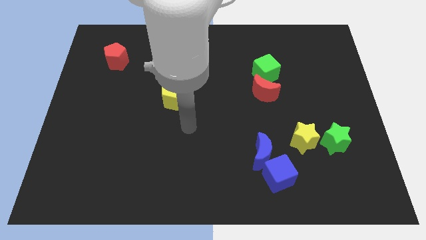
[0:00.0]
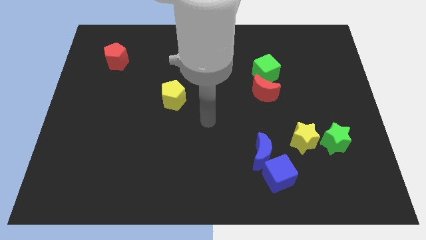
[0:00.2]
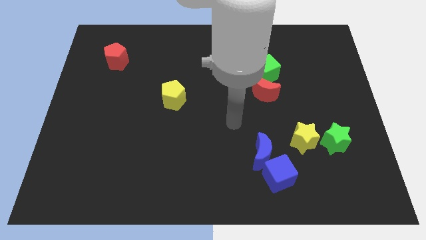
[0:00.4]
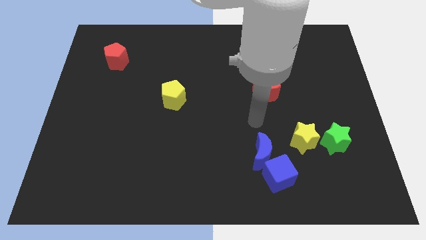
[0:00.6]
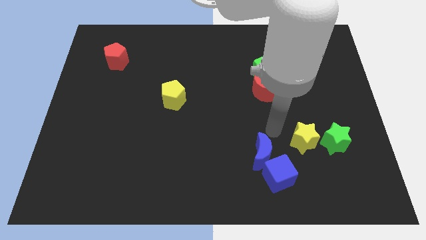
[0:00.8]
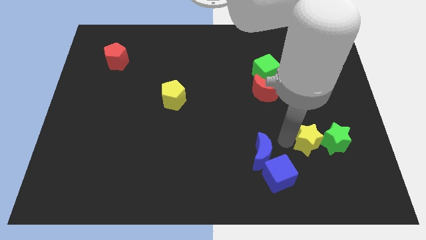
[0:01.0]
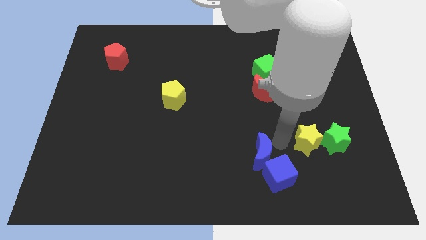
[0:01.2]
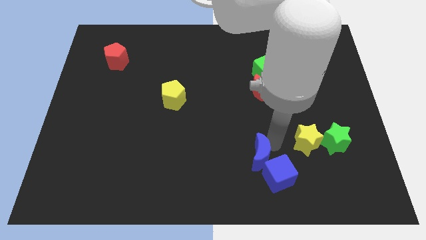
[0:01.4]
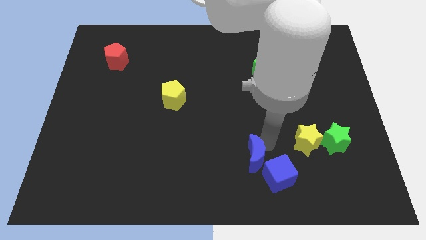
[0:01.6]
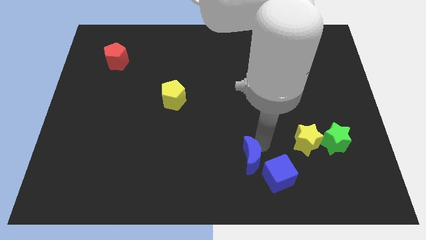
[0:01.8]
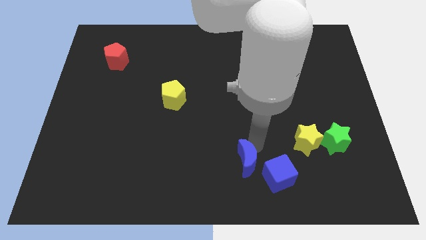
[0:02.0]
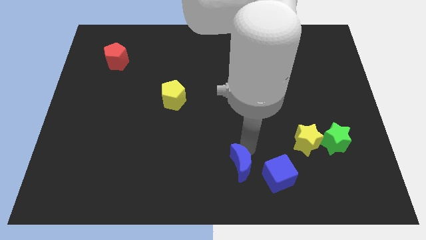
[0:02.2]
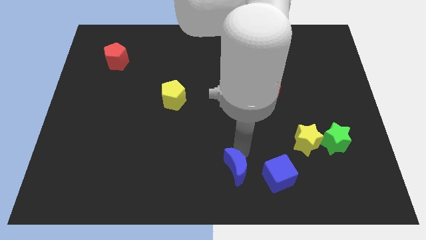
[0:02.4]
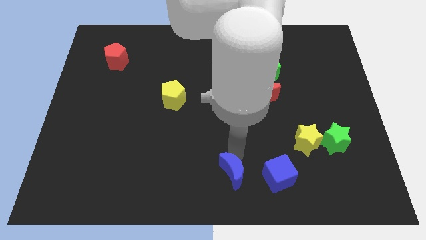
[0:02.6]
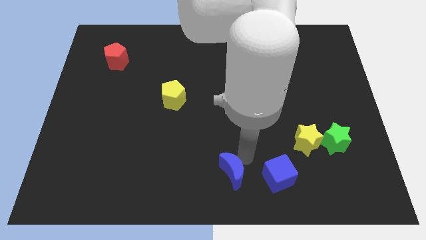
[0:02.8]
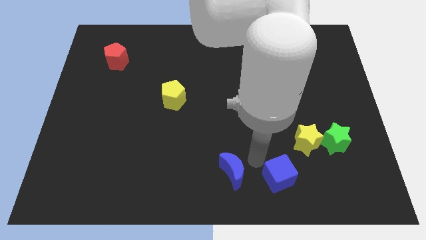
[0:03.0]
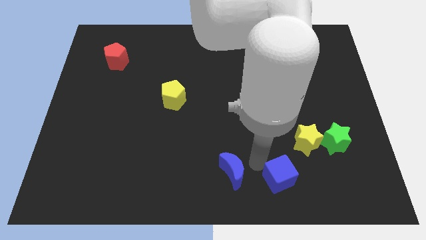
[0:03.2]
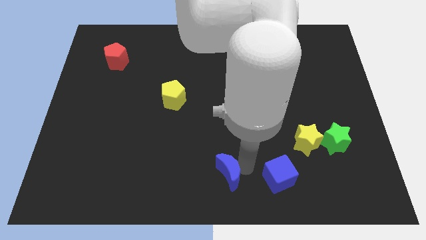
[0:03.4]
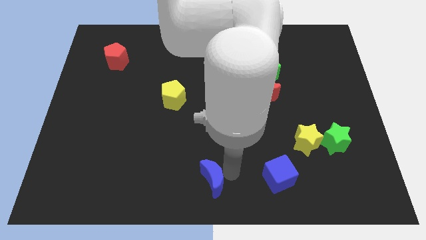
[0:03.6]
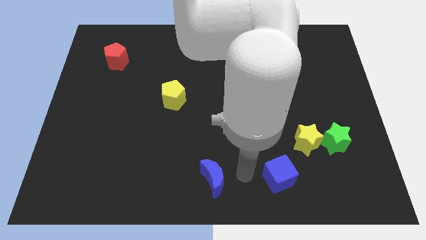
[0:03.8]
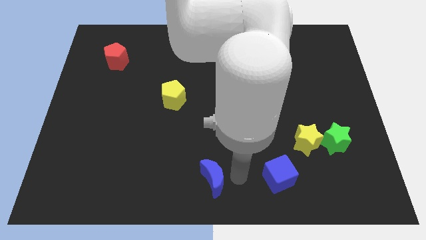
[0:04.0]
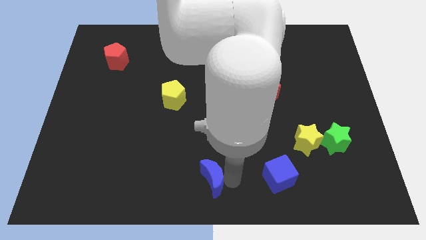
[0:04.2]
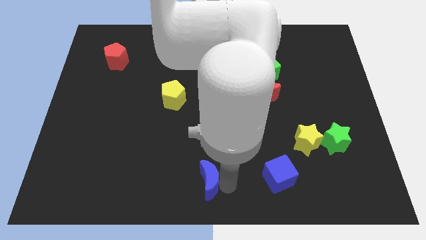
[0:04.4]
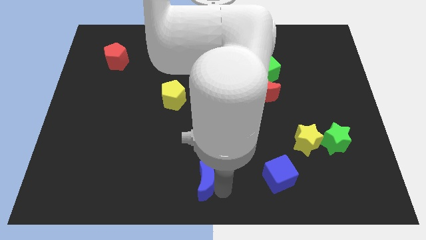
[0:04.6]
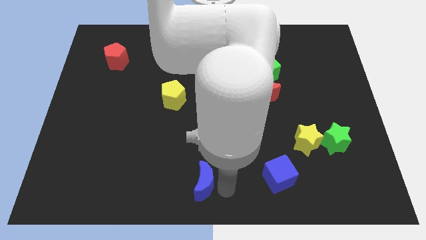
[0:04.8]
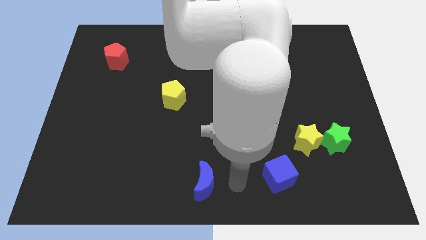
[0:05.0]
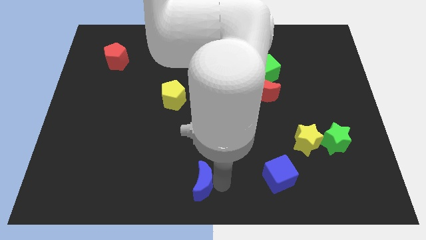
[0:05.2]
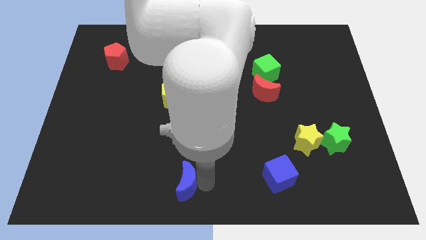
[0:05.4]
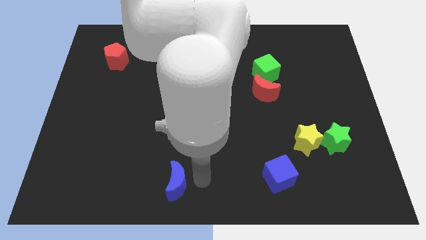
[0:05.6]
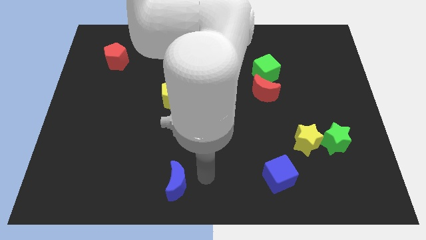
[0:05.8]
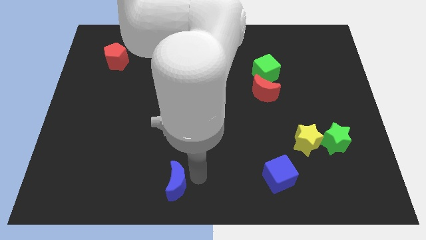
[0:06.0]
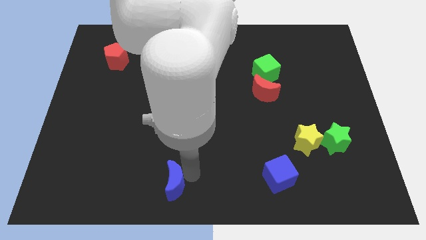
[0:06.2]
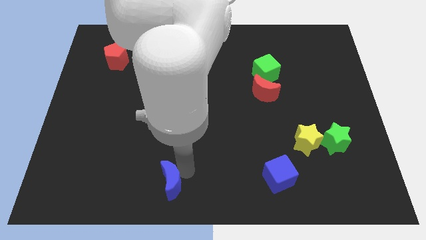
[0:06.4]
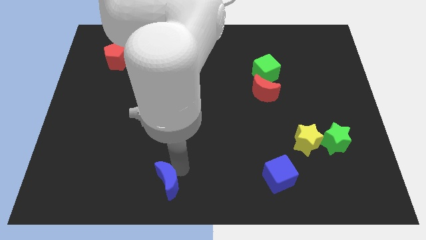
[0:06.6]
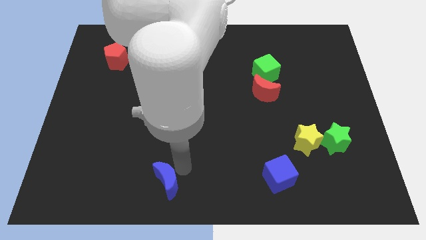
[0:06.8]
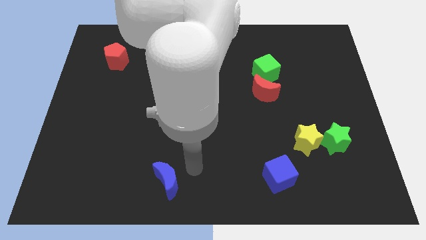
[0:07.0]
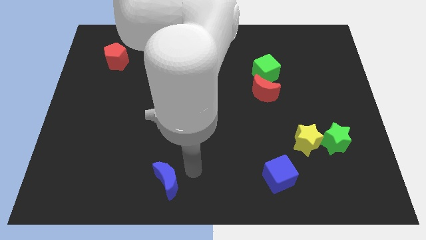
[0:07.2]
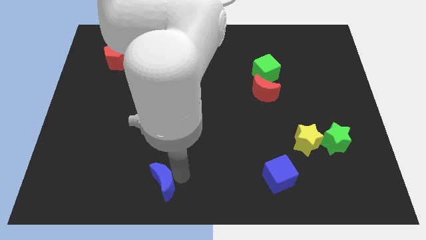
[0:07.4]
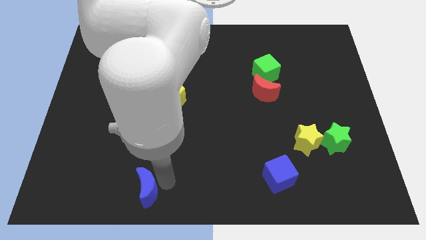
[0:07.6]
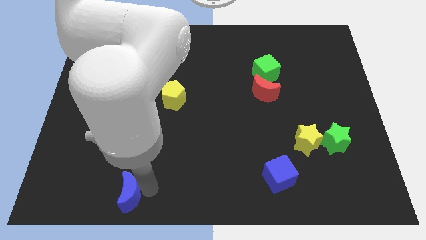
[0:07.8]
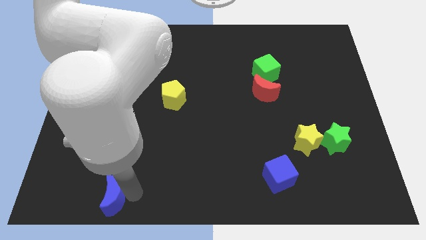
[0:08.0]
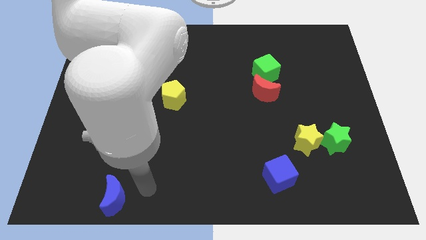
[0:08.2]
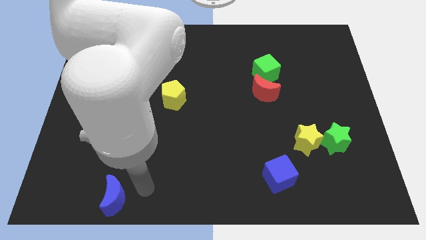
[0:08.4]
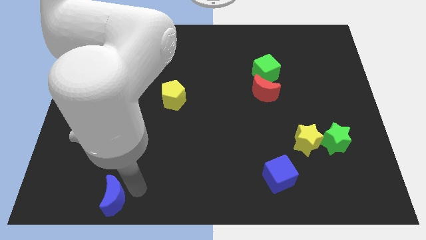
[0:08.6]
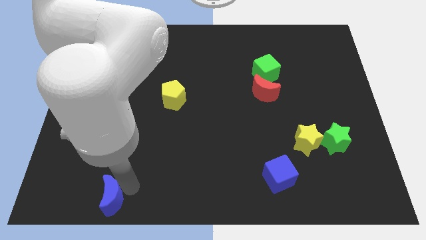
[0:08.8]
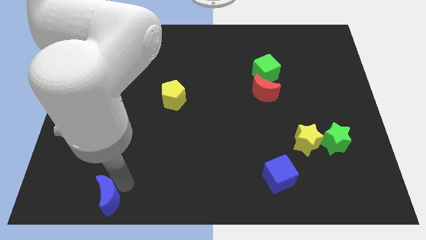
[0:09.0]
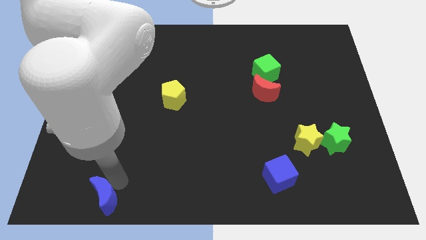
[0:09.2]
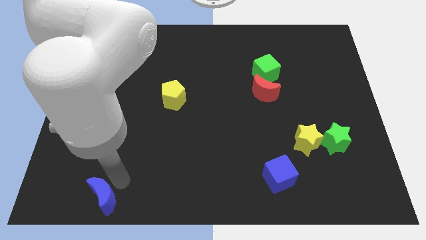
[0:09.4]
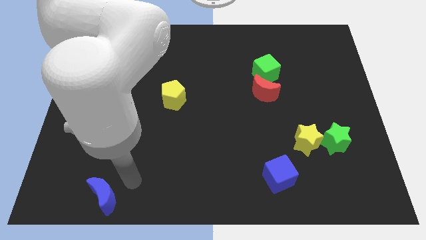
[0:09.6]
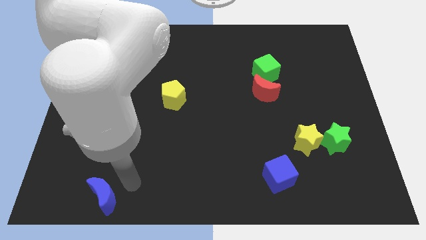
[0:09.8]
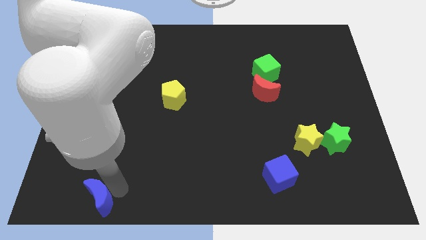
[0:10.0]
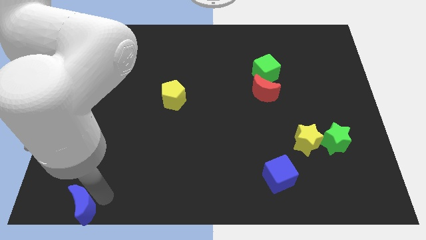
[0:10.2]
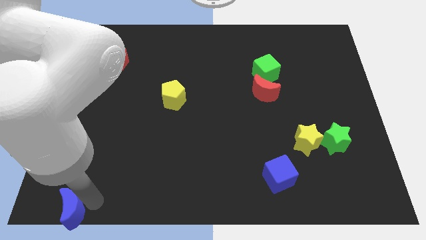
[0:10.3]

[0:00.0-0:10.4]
put the blue moon to the bottom left of the board
